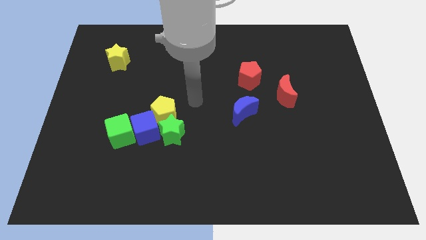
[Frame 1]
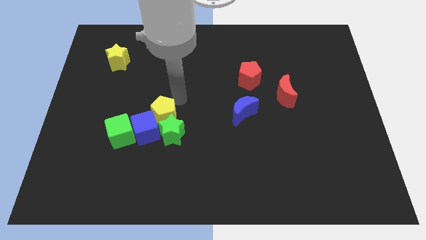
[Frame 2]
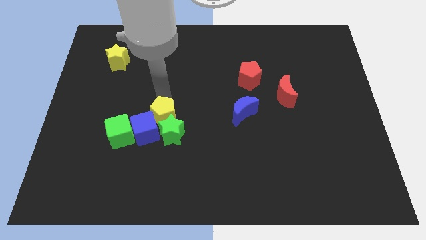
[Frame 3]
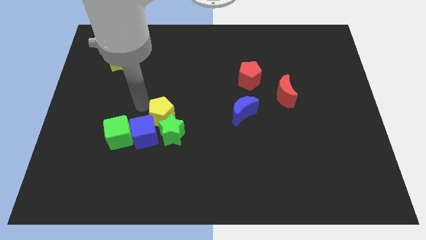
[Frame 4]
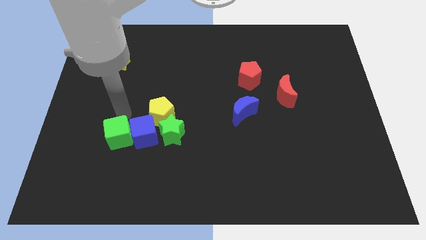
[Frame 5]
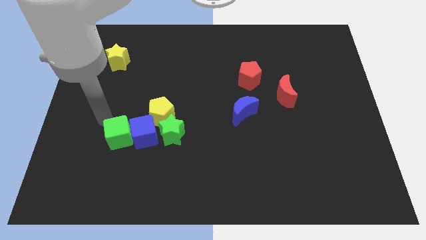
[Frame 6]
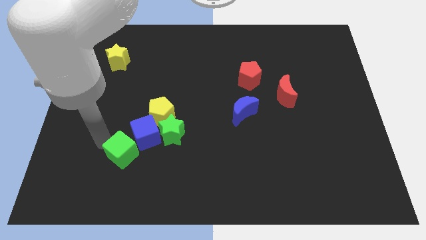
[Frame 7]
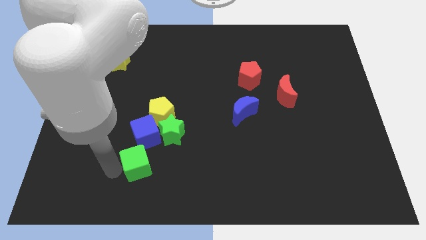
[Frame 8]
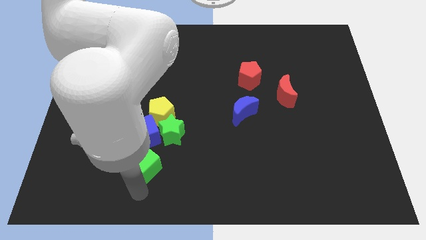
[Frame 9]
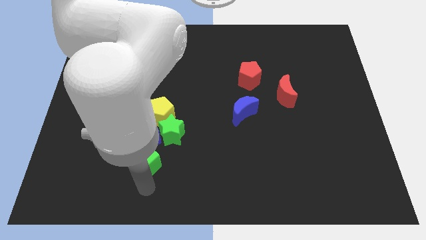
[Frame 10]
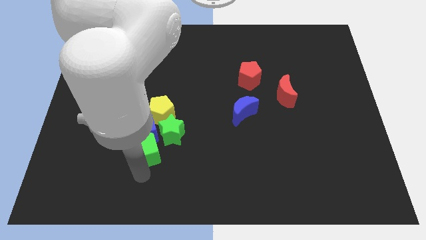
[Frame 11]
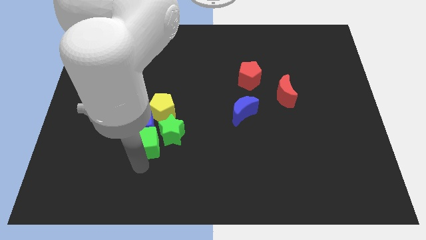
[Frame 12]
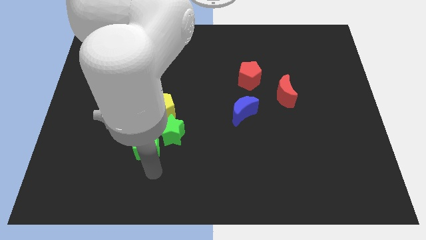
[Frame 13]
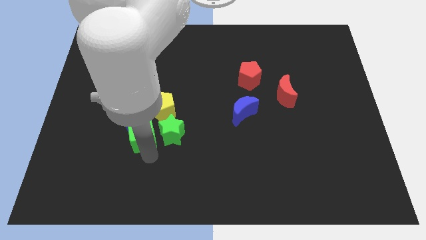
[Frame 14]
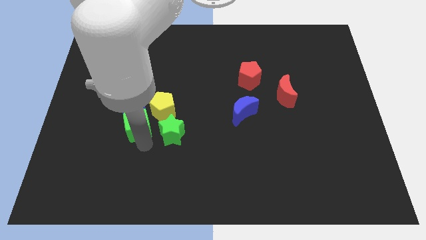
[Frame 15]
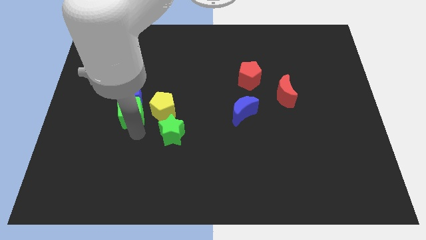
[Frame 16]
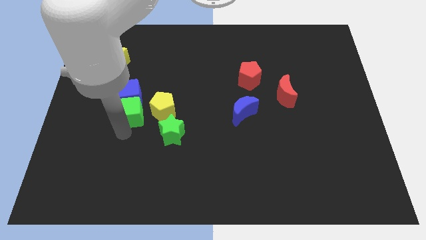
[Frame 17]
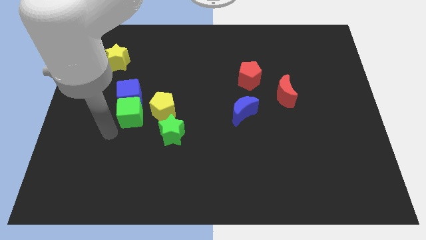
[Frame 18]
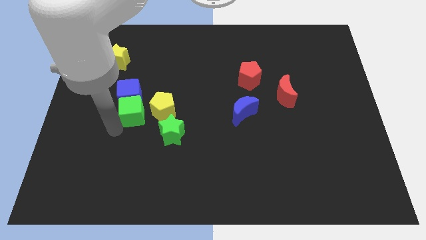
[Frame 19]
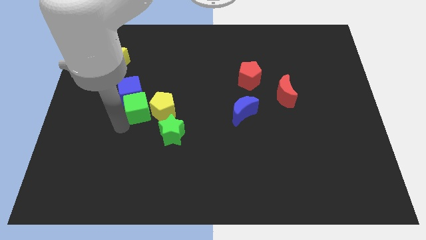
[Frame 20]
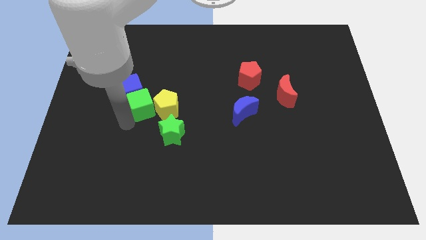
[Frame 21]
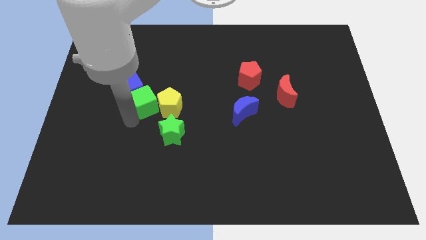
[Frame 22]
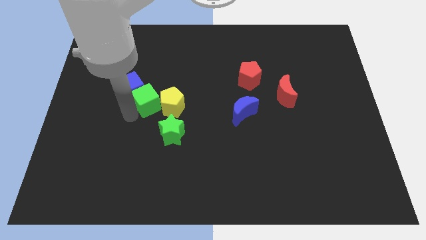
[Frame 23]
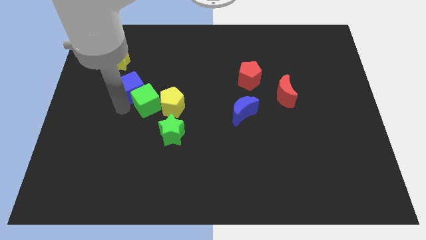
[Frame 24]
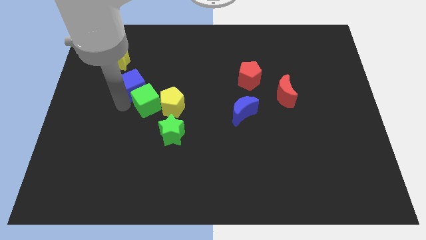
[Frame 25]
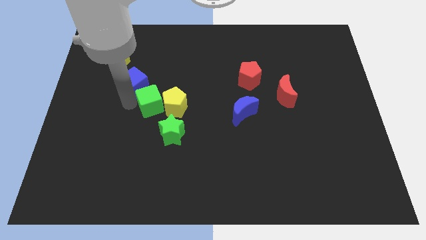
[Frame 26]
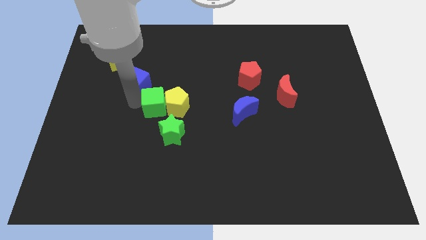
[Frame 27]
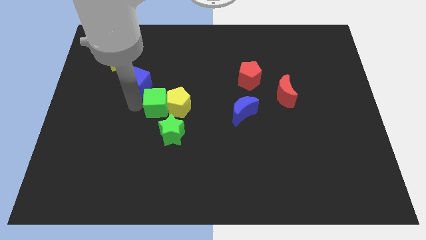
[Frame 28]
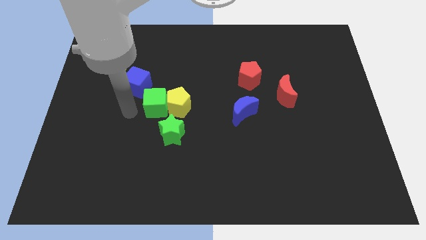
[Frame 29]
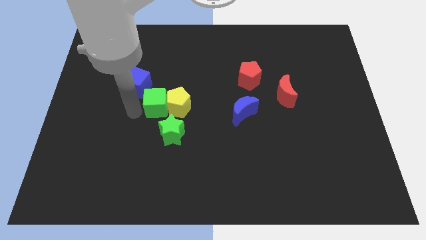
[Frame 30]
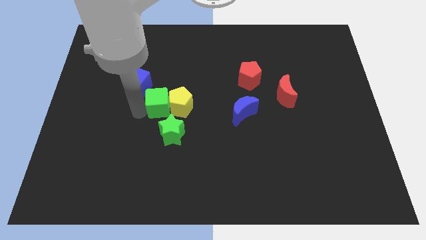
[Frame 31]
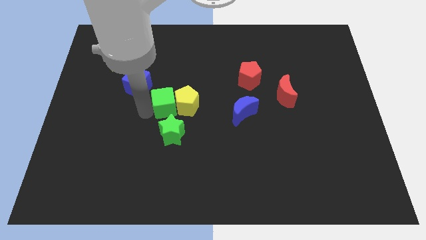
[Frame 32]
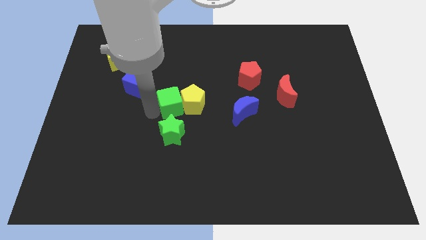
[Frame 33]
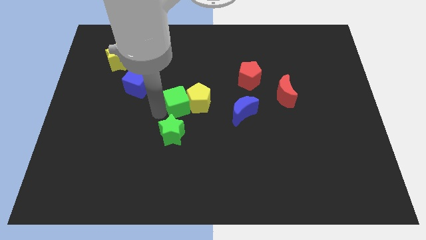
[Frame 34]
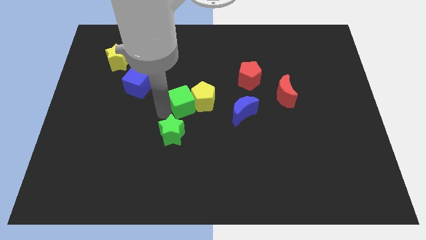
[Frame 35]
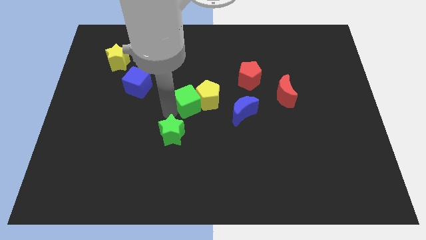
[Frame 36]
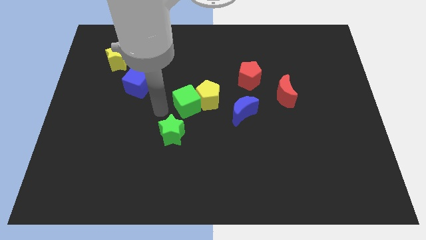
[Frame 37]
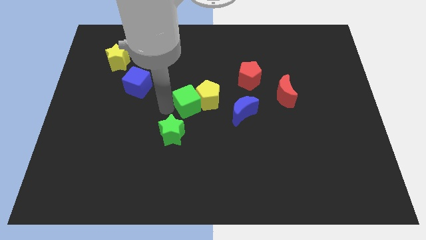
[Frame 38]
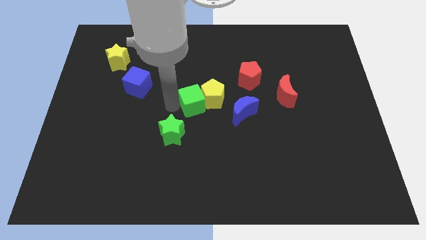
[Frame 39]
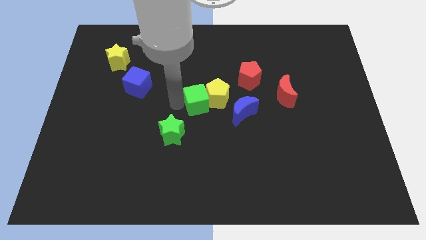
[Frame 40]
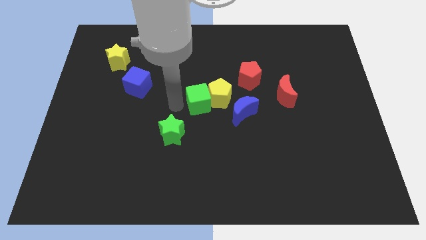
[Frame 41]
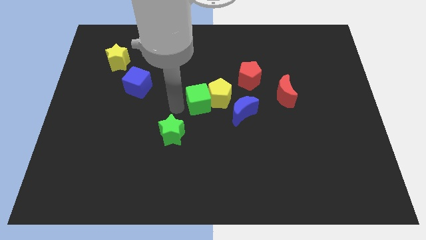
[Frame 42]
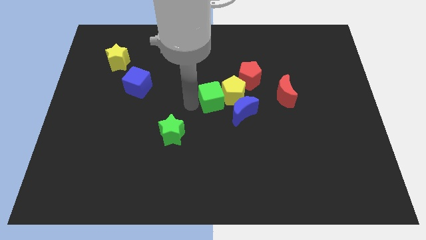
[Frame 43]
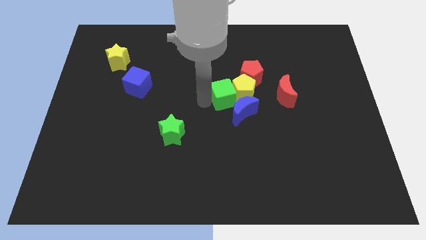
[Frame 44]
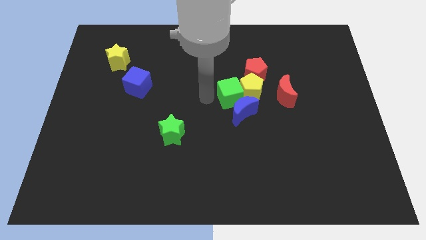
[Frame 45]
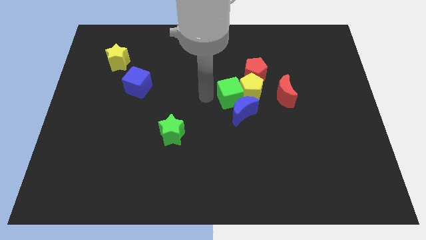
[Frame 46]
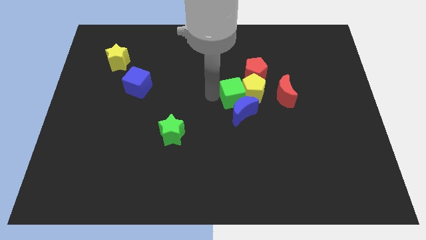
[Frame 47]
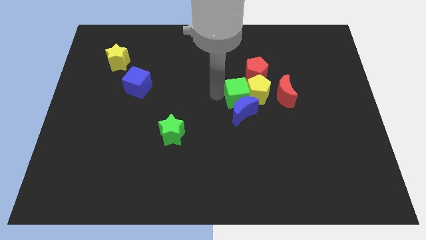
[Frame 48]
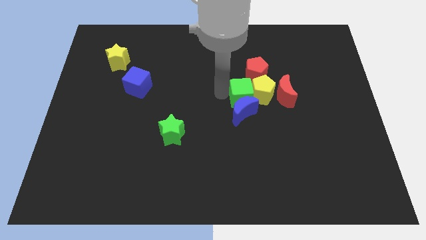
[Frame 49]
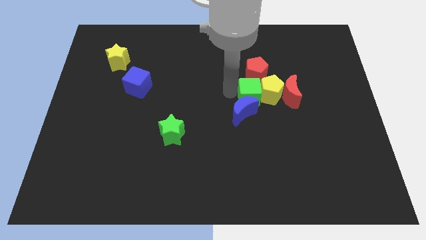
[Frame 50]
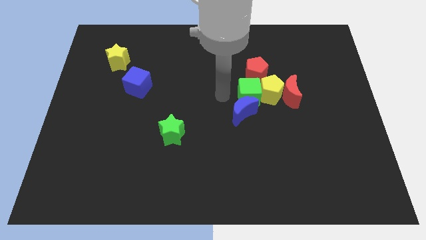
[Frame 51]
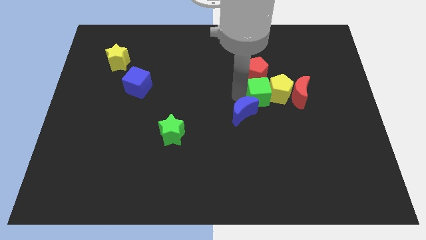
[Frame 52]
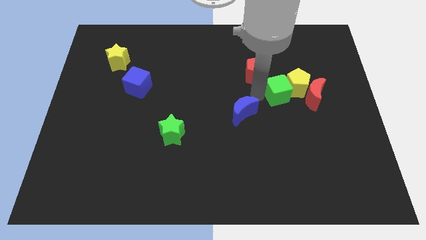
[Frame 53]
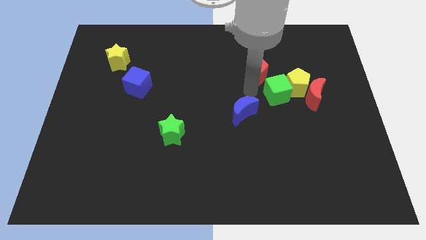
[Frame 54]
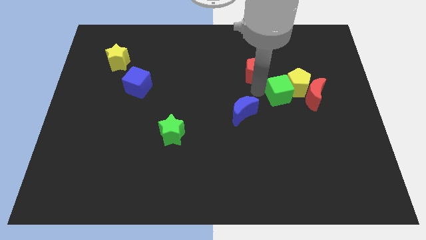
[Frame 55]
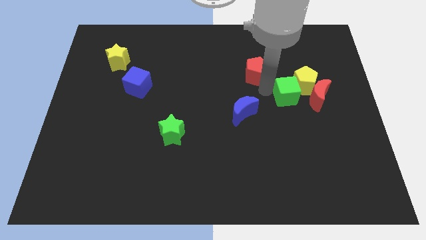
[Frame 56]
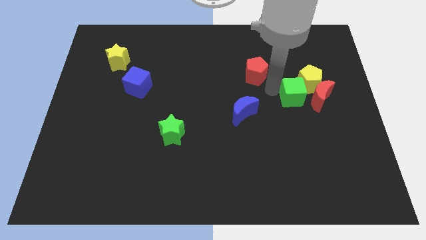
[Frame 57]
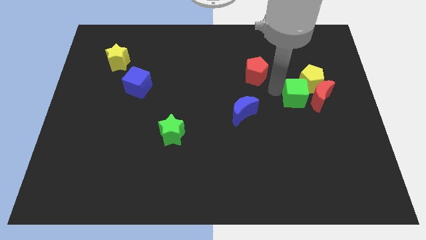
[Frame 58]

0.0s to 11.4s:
slide the green cube to the red moon

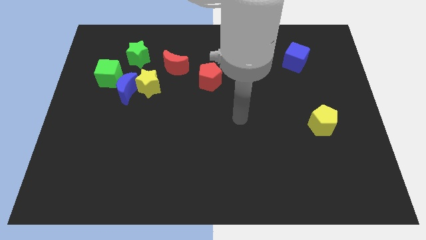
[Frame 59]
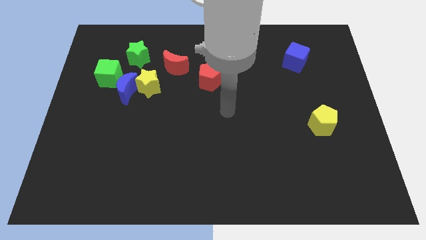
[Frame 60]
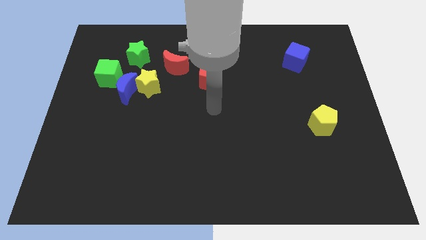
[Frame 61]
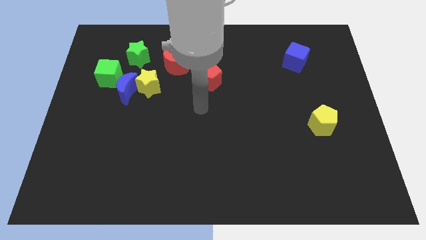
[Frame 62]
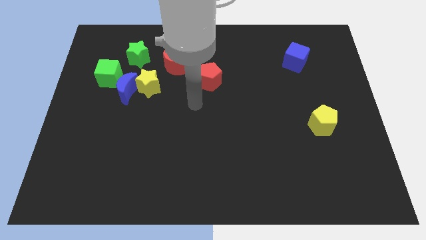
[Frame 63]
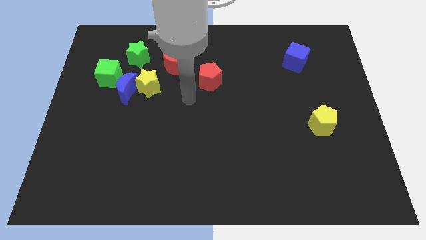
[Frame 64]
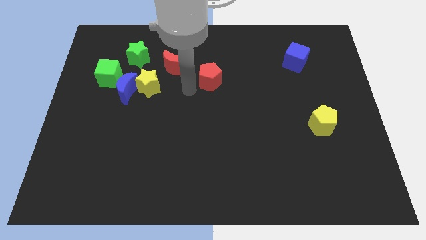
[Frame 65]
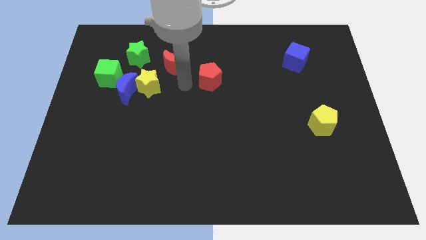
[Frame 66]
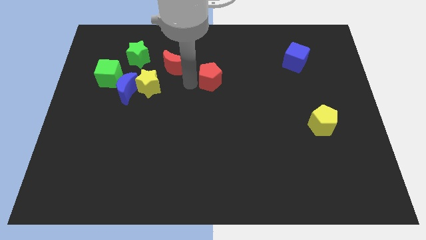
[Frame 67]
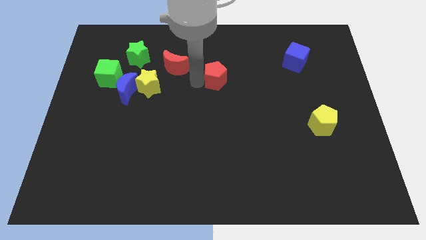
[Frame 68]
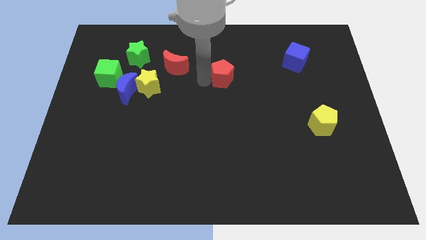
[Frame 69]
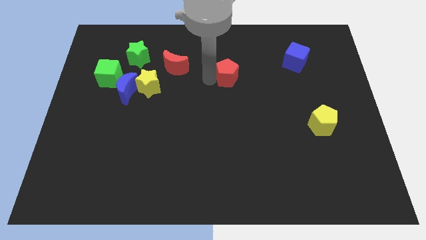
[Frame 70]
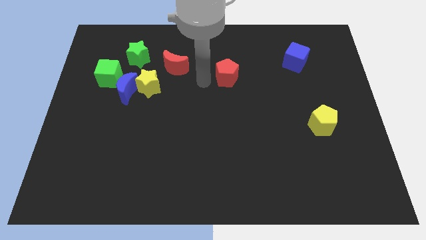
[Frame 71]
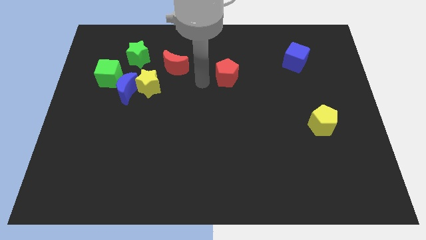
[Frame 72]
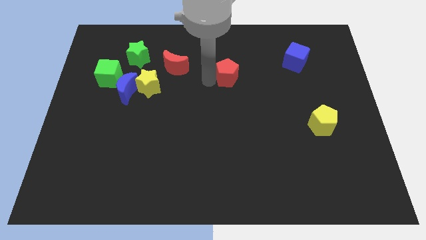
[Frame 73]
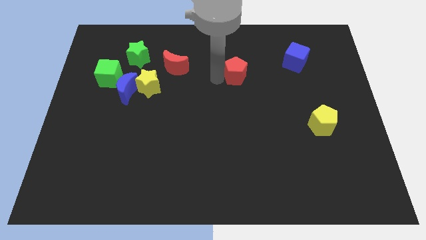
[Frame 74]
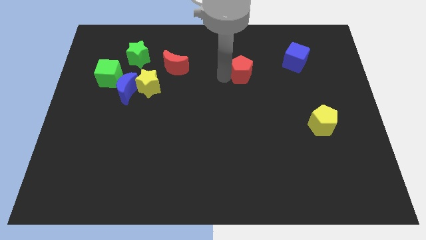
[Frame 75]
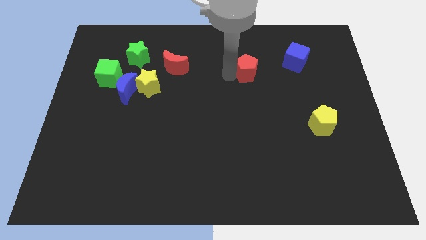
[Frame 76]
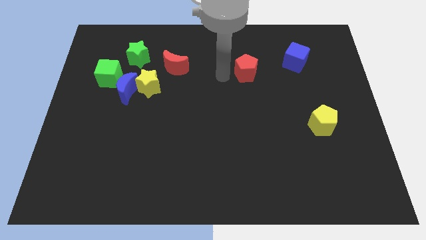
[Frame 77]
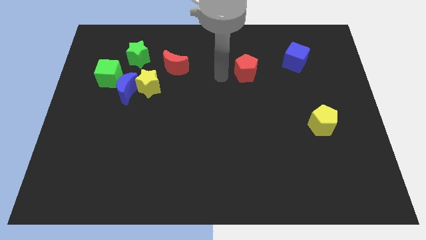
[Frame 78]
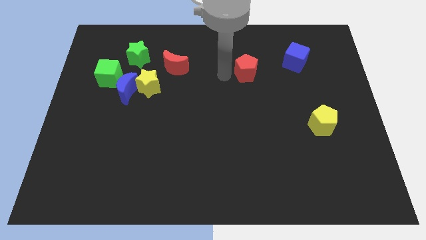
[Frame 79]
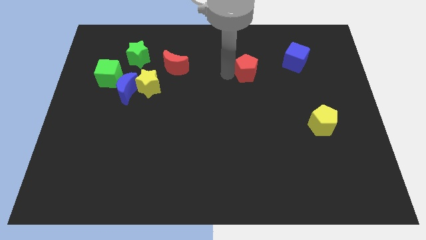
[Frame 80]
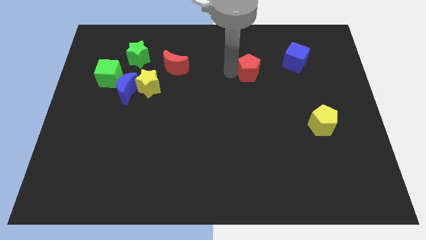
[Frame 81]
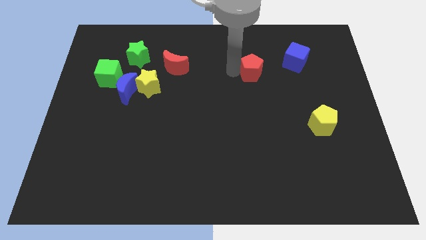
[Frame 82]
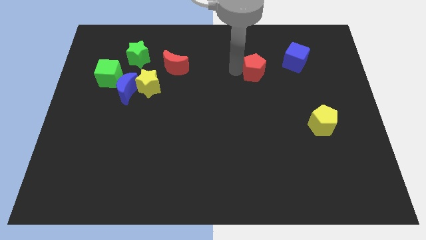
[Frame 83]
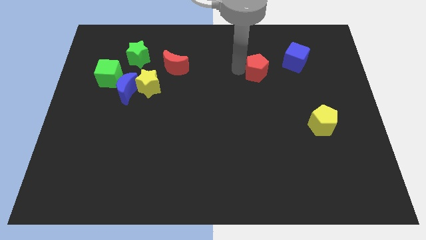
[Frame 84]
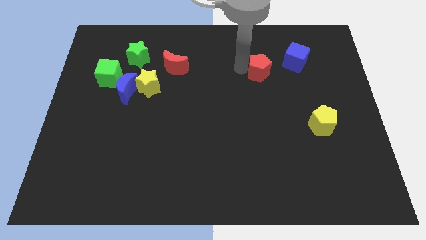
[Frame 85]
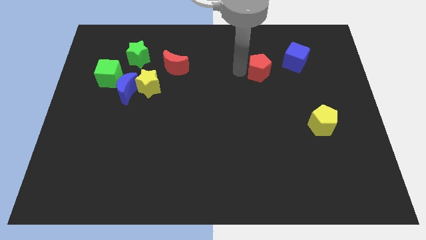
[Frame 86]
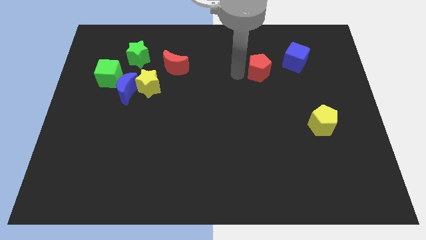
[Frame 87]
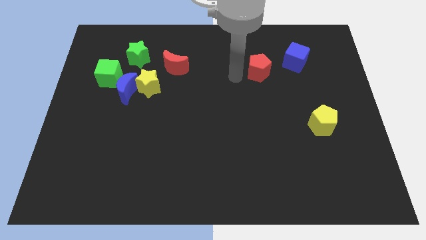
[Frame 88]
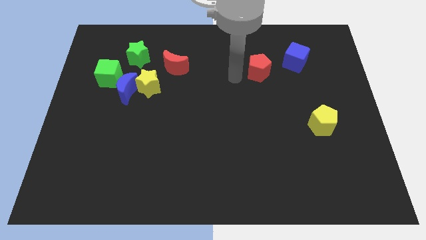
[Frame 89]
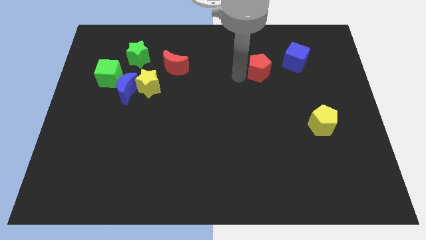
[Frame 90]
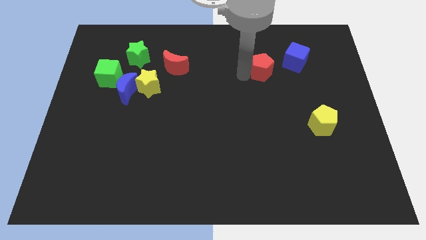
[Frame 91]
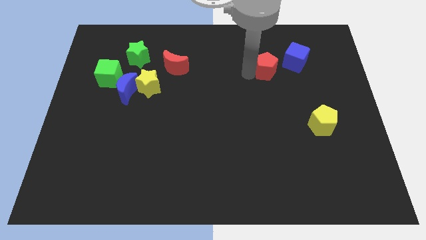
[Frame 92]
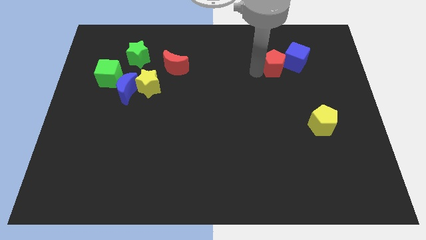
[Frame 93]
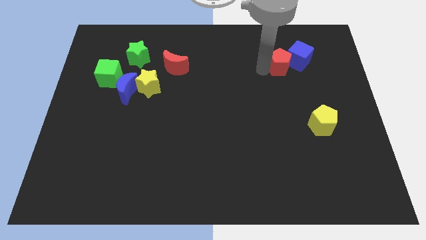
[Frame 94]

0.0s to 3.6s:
put the red pentagon close to the blue cube
